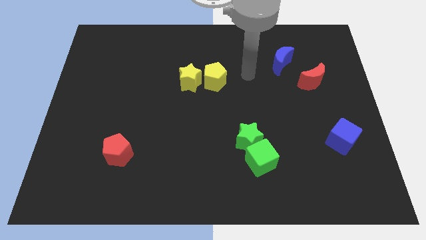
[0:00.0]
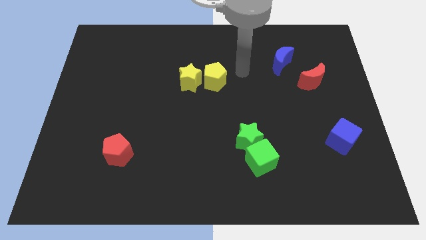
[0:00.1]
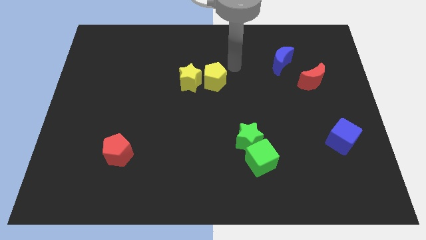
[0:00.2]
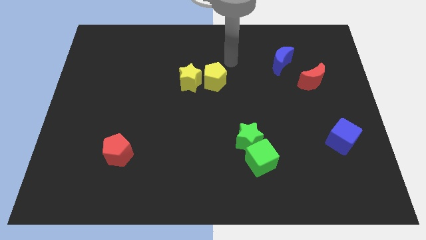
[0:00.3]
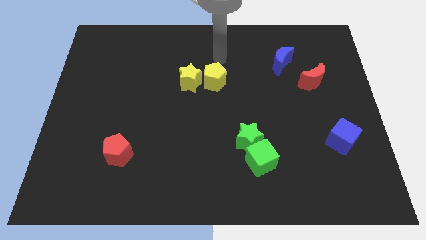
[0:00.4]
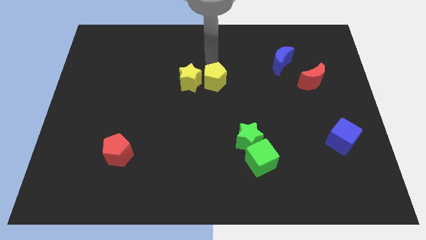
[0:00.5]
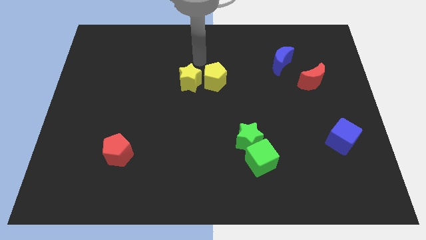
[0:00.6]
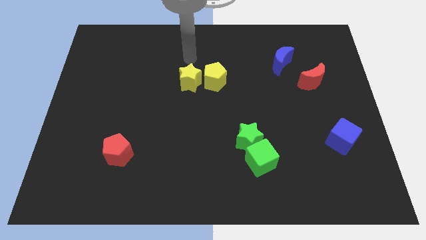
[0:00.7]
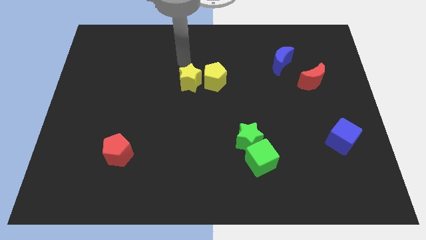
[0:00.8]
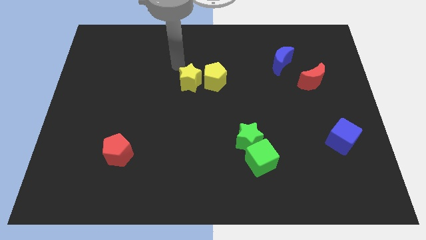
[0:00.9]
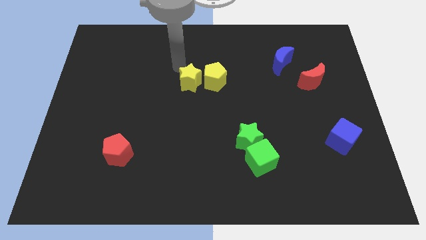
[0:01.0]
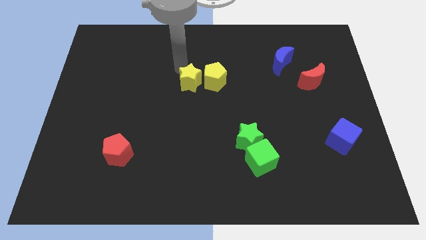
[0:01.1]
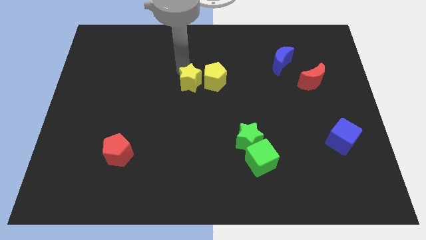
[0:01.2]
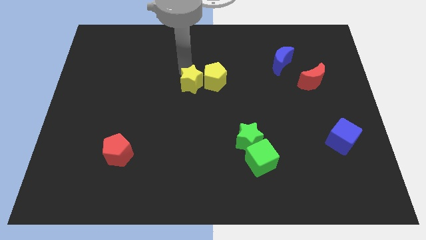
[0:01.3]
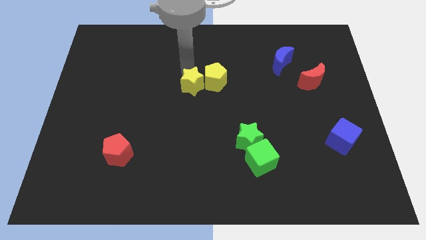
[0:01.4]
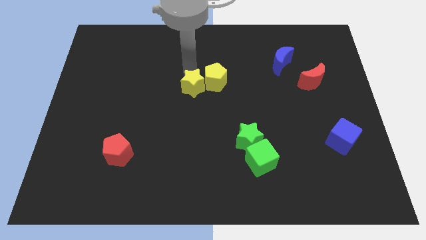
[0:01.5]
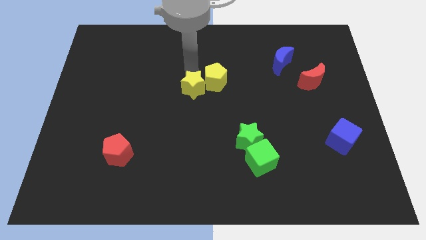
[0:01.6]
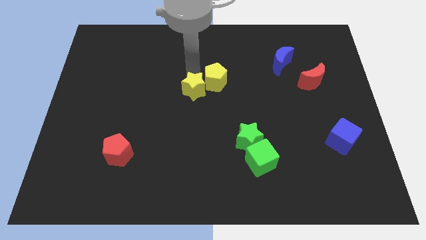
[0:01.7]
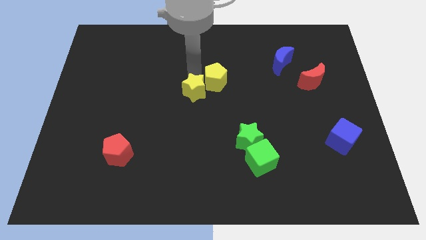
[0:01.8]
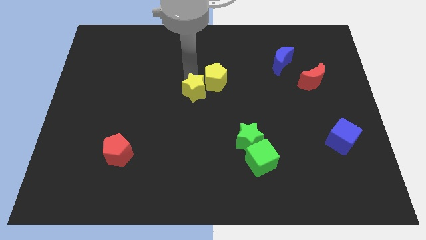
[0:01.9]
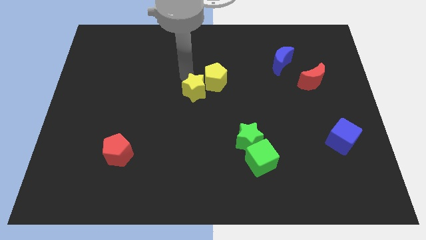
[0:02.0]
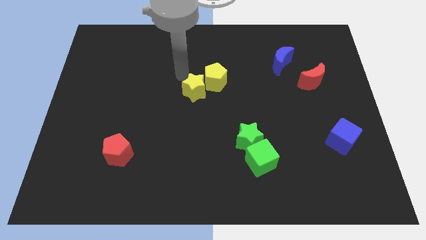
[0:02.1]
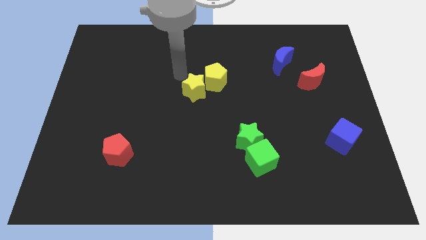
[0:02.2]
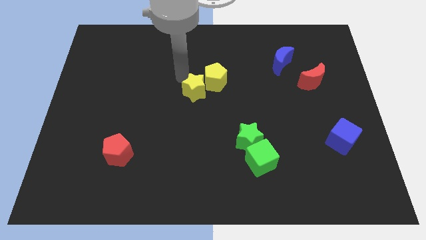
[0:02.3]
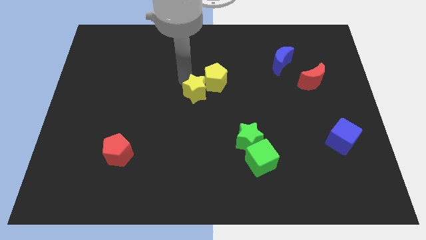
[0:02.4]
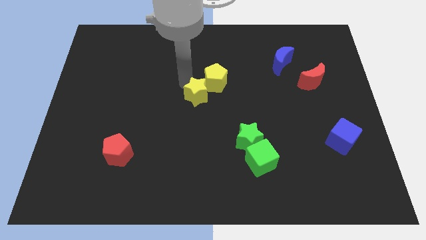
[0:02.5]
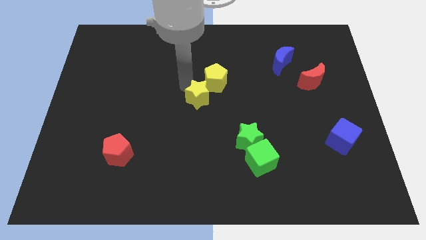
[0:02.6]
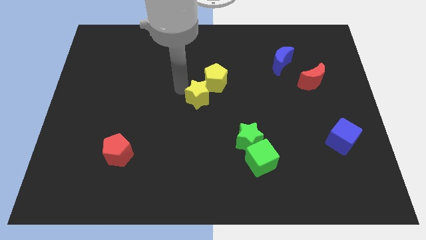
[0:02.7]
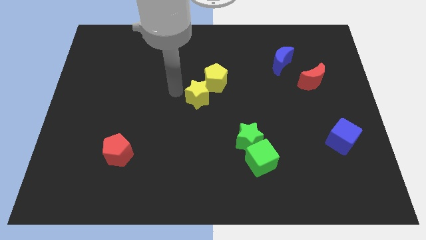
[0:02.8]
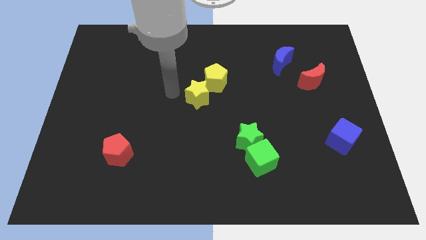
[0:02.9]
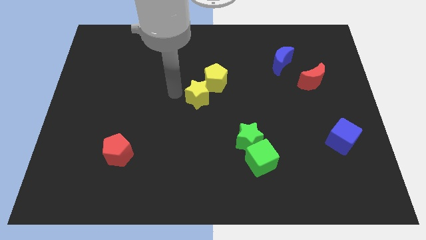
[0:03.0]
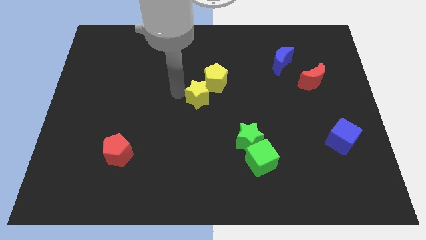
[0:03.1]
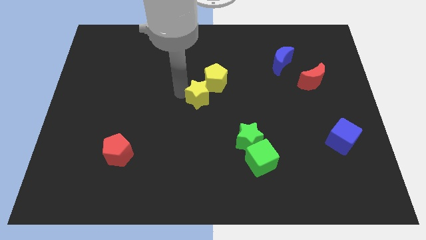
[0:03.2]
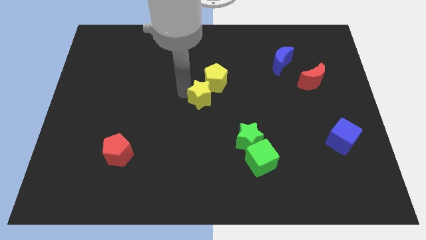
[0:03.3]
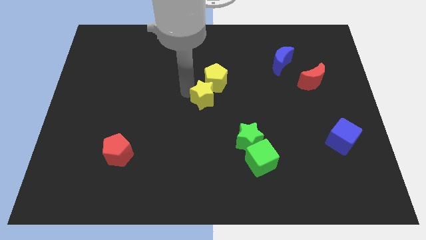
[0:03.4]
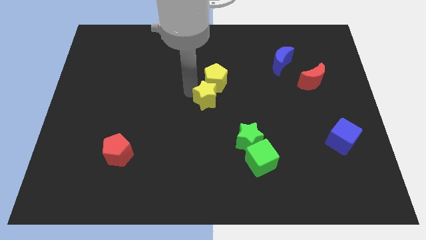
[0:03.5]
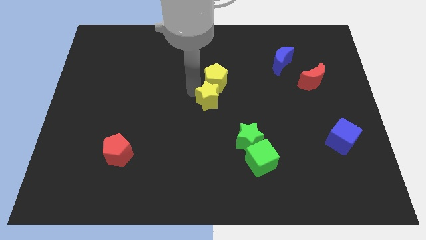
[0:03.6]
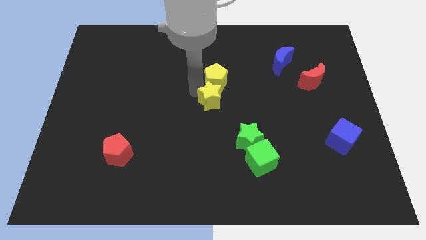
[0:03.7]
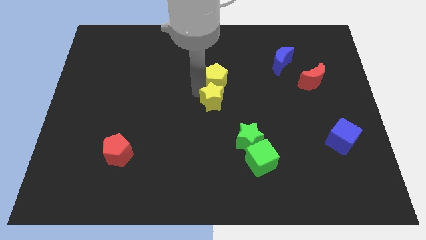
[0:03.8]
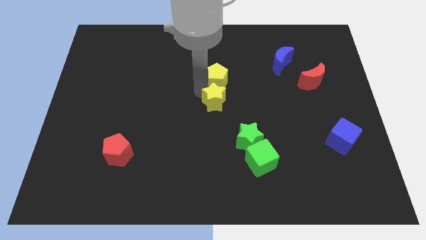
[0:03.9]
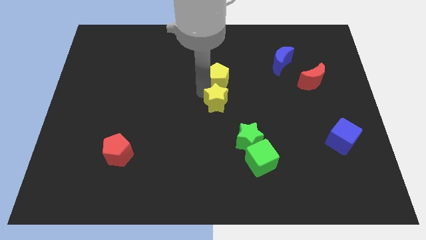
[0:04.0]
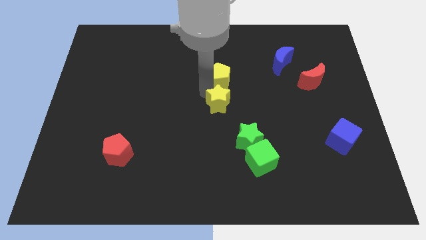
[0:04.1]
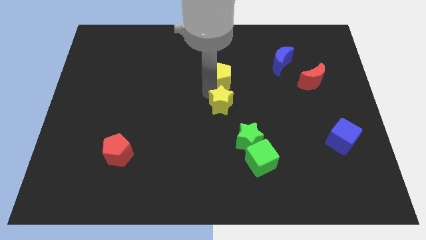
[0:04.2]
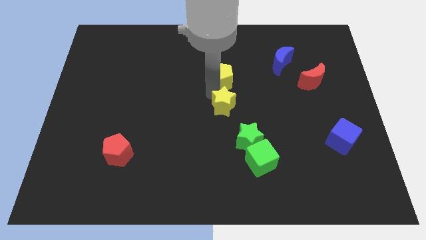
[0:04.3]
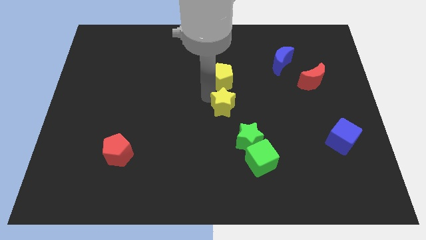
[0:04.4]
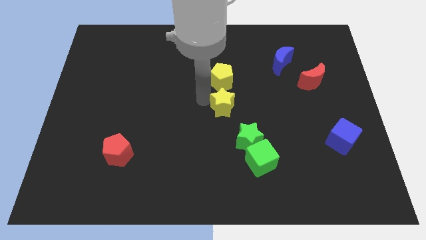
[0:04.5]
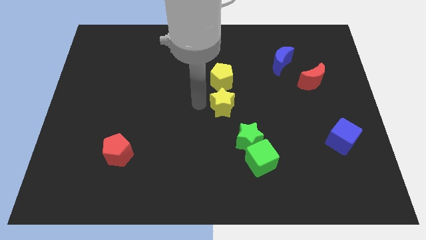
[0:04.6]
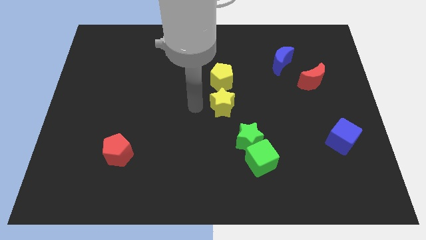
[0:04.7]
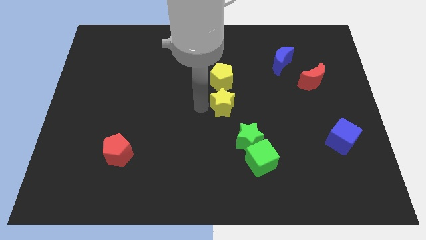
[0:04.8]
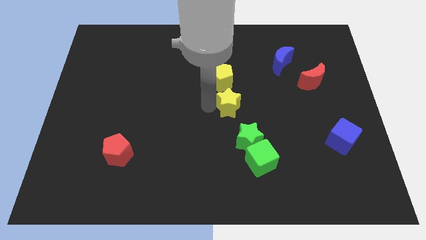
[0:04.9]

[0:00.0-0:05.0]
slide the yellow star to the top side of the green star

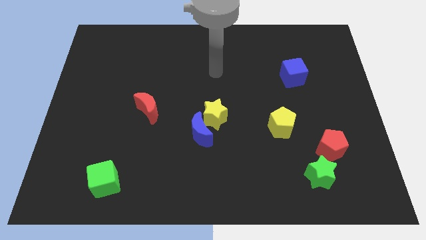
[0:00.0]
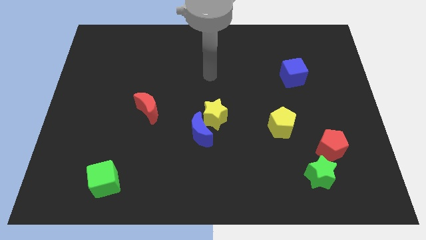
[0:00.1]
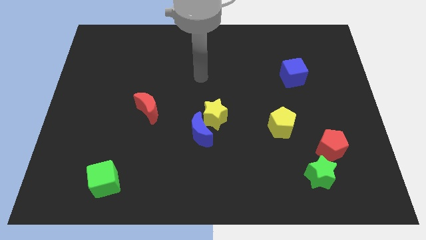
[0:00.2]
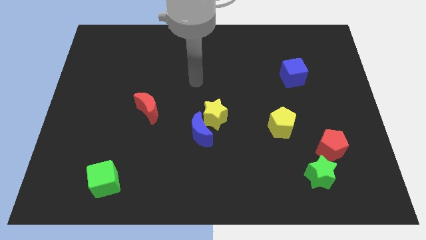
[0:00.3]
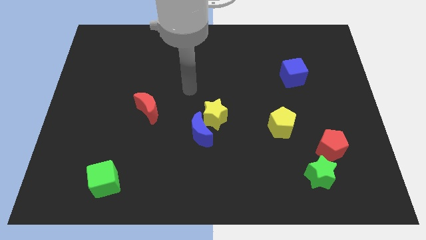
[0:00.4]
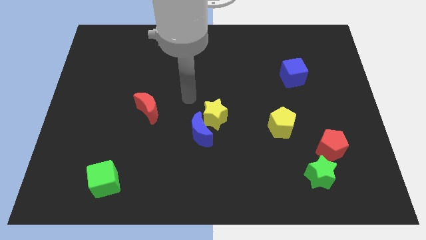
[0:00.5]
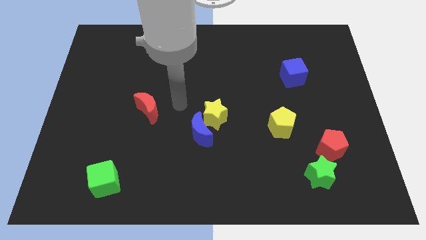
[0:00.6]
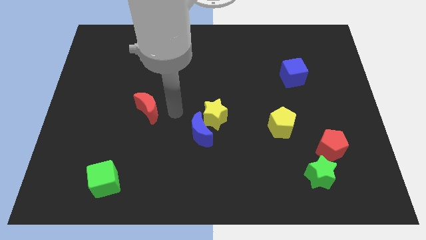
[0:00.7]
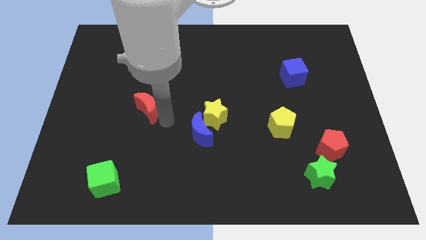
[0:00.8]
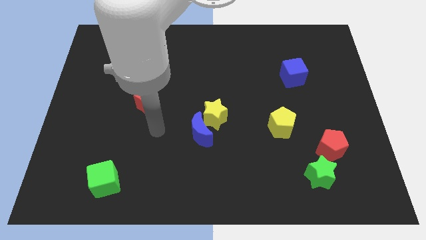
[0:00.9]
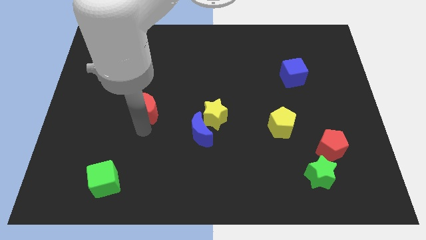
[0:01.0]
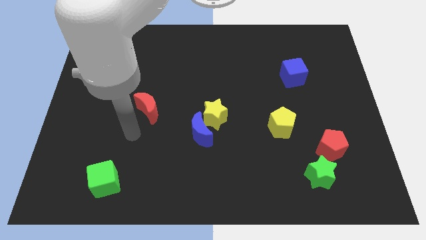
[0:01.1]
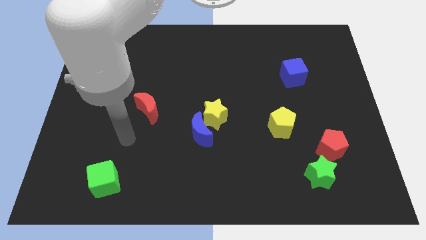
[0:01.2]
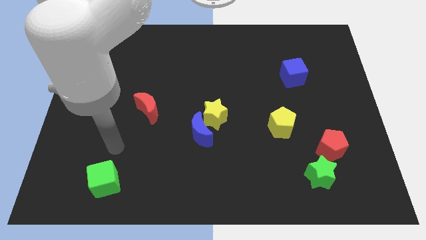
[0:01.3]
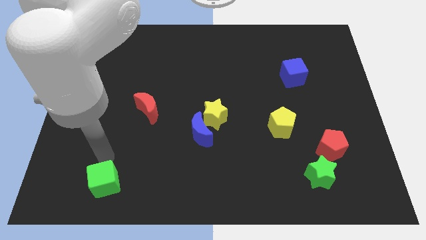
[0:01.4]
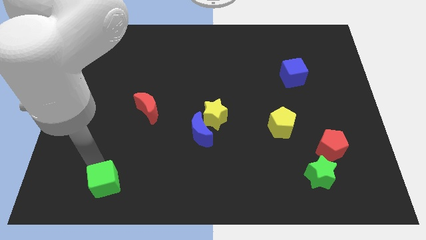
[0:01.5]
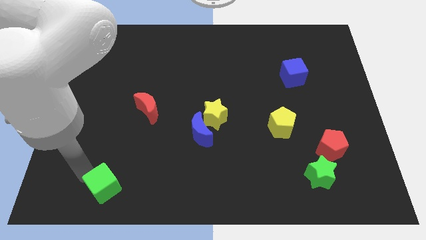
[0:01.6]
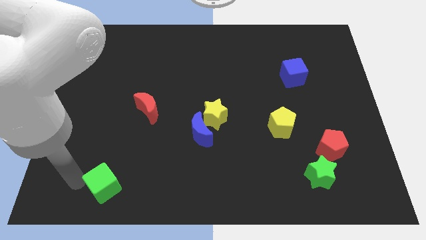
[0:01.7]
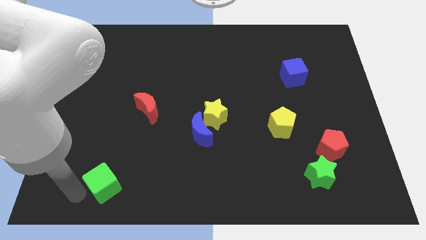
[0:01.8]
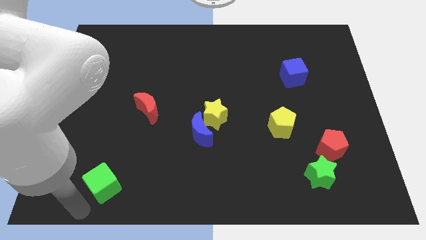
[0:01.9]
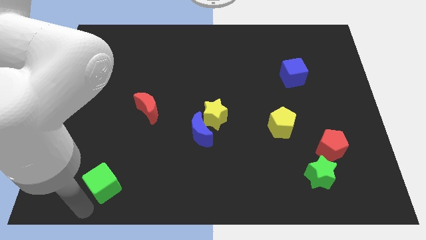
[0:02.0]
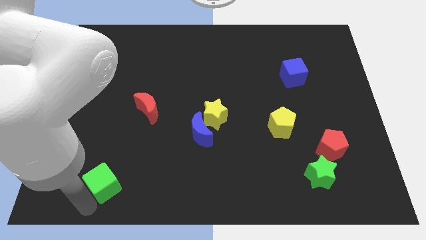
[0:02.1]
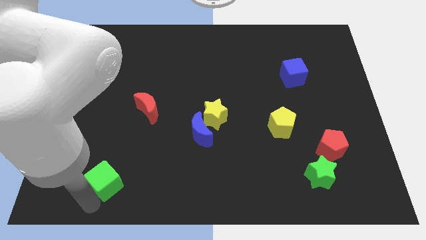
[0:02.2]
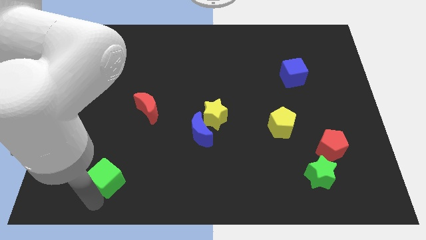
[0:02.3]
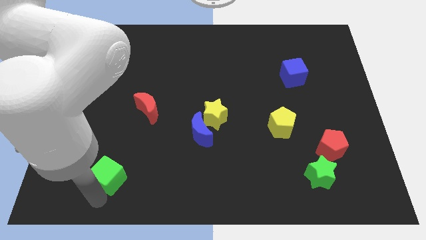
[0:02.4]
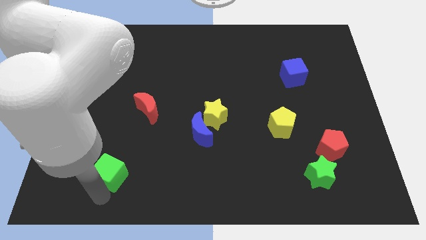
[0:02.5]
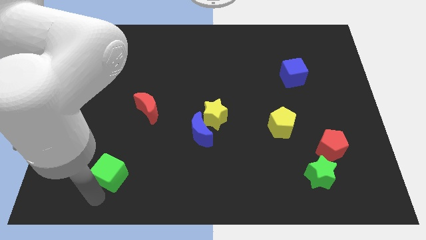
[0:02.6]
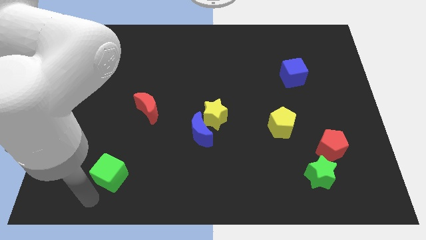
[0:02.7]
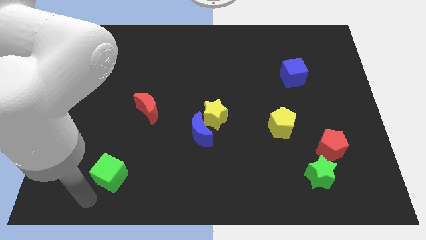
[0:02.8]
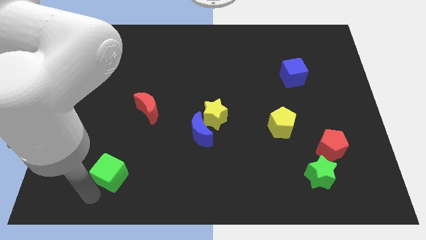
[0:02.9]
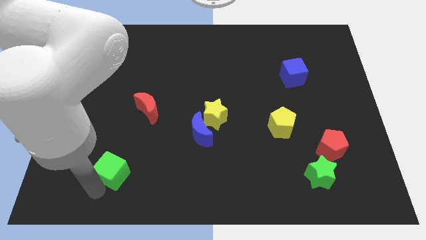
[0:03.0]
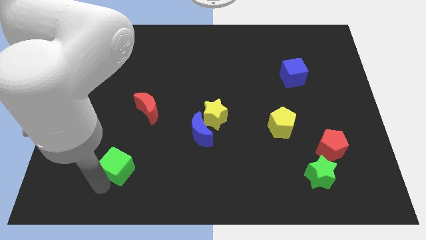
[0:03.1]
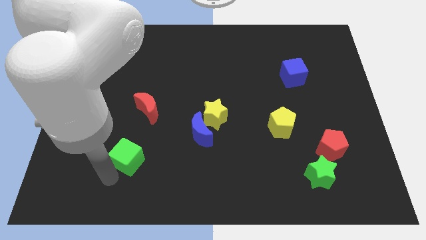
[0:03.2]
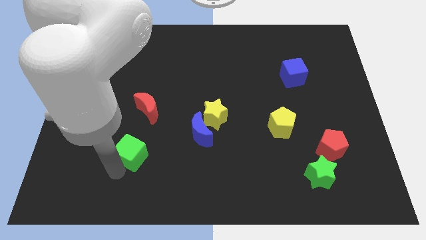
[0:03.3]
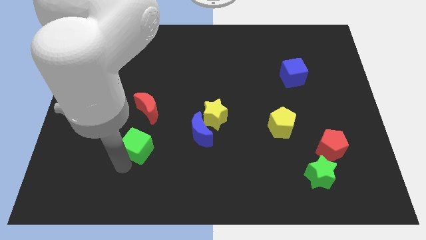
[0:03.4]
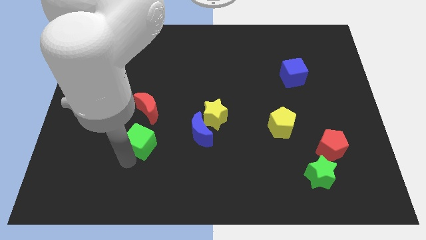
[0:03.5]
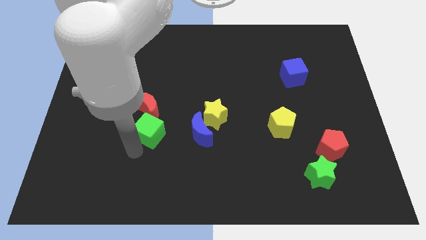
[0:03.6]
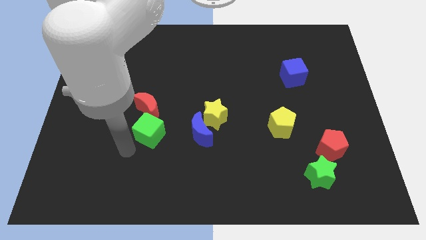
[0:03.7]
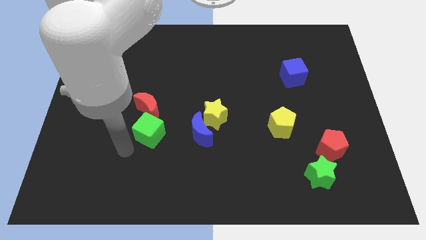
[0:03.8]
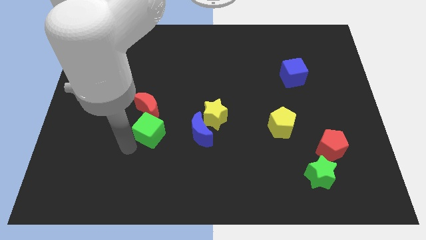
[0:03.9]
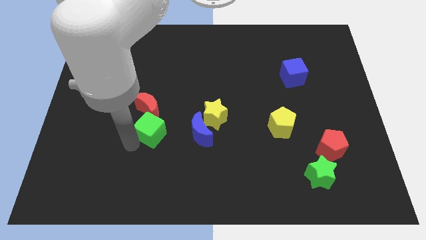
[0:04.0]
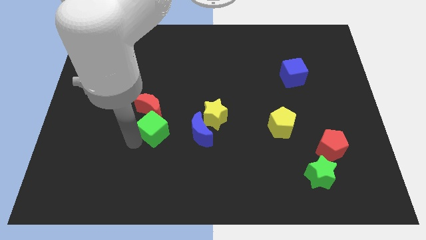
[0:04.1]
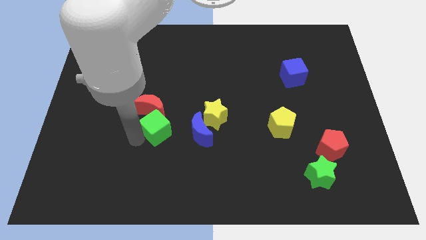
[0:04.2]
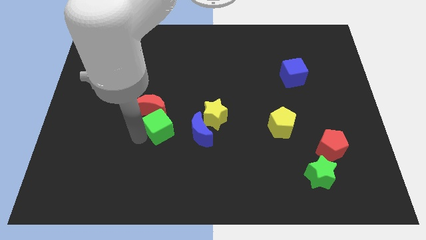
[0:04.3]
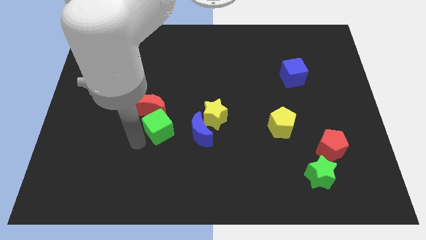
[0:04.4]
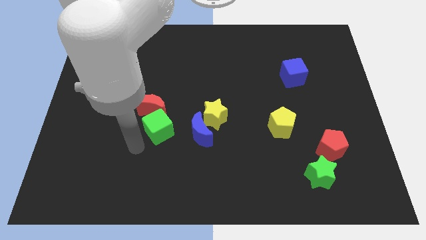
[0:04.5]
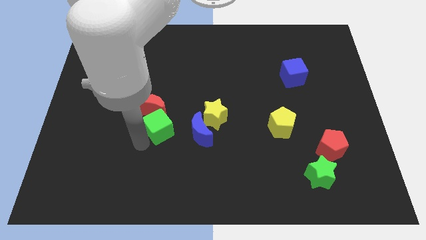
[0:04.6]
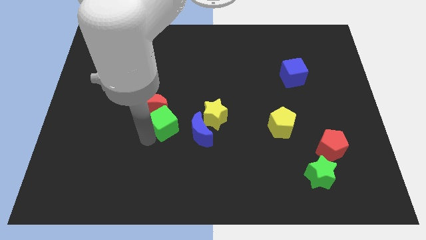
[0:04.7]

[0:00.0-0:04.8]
put the green cube diagonally up and to the left of the blue moon
